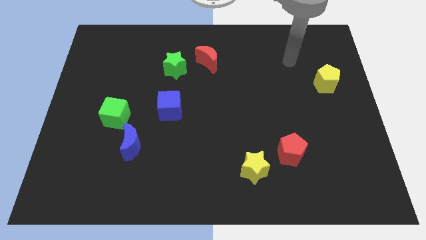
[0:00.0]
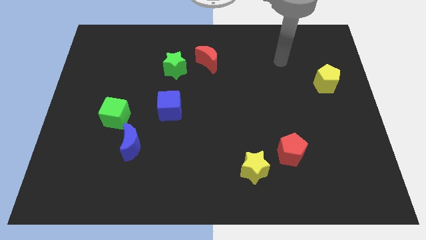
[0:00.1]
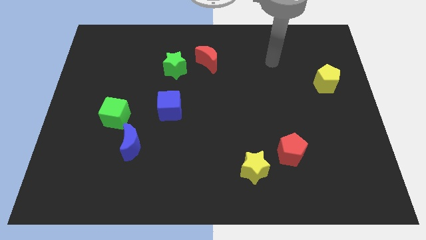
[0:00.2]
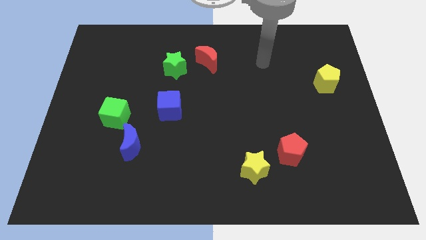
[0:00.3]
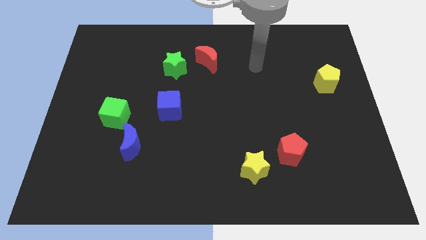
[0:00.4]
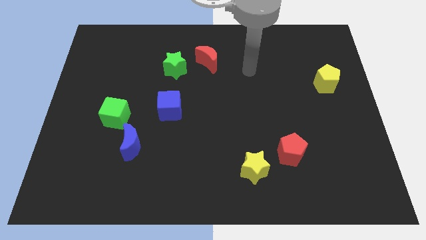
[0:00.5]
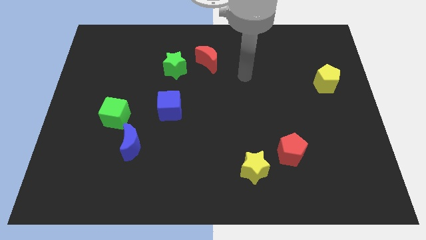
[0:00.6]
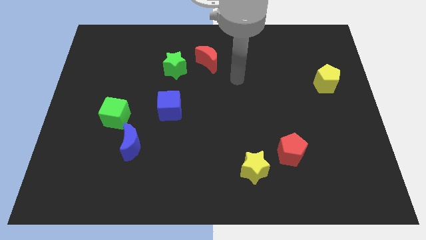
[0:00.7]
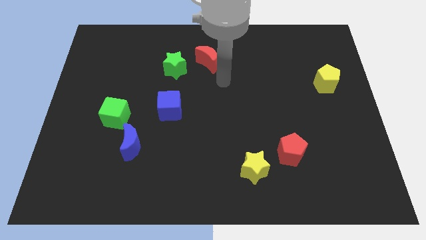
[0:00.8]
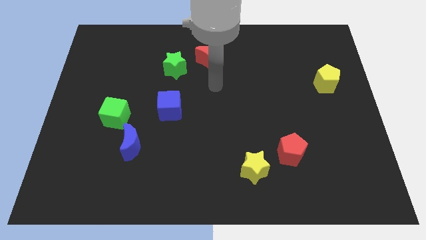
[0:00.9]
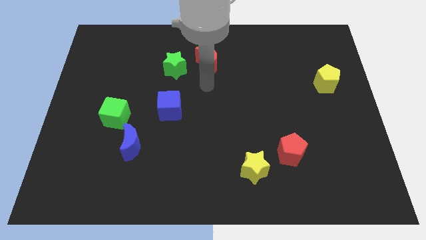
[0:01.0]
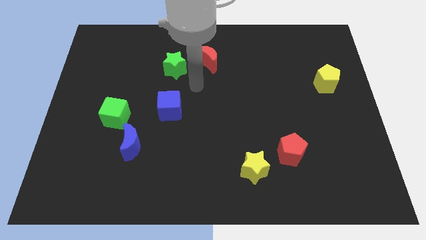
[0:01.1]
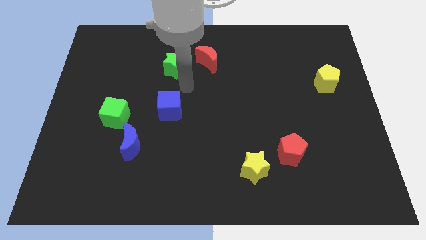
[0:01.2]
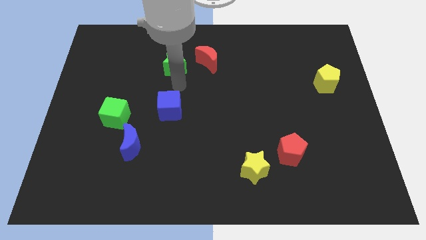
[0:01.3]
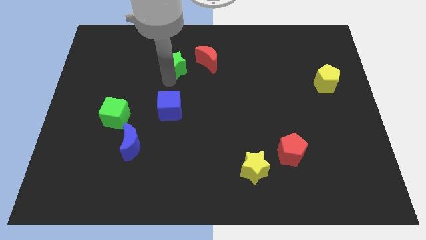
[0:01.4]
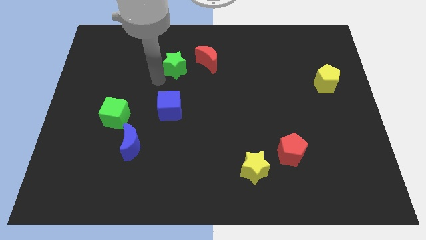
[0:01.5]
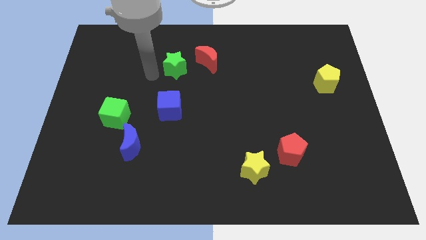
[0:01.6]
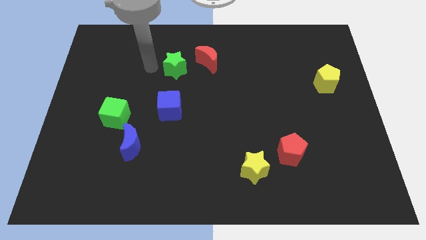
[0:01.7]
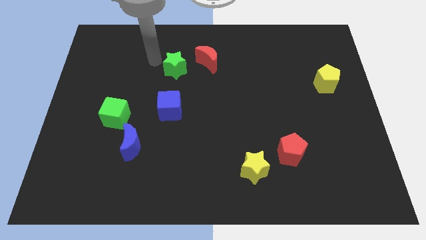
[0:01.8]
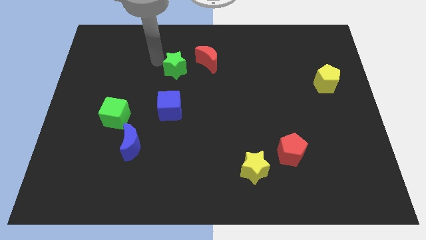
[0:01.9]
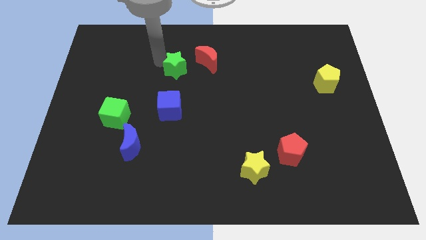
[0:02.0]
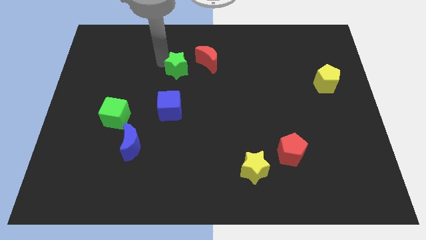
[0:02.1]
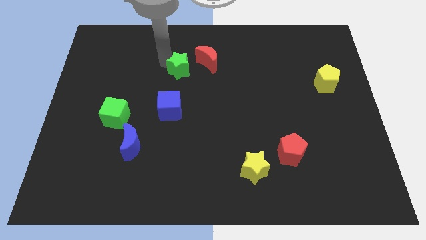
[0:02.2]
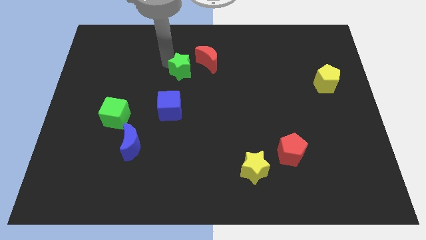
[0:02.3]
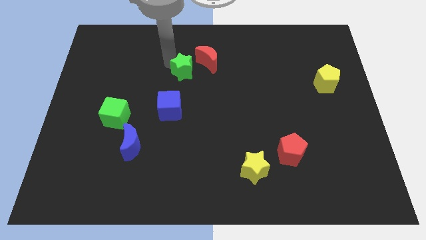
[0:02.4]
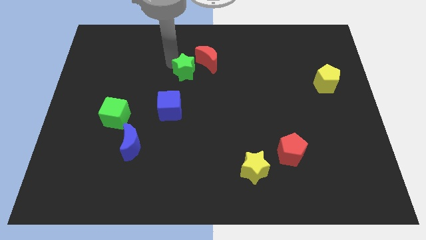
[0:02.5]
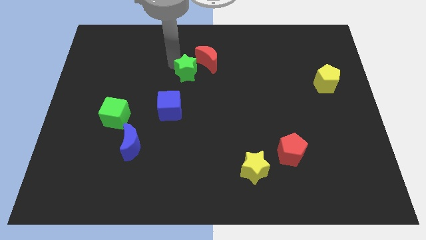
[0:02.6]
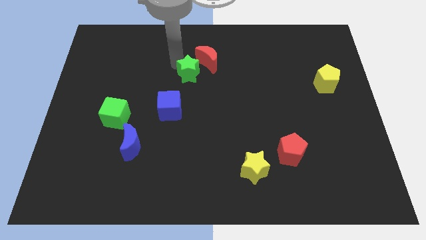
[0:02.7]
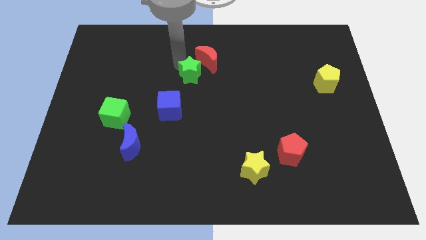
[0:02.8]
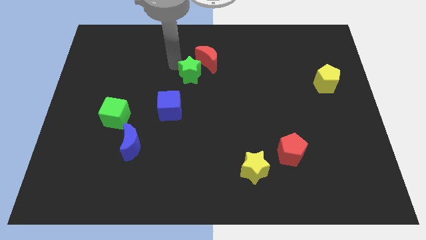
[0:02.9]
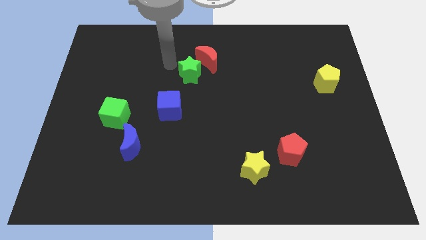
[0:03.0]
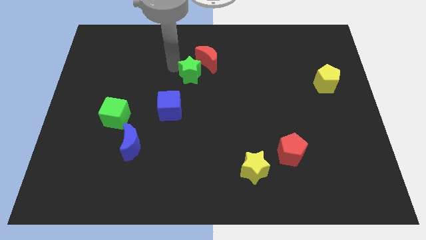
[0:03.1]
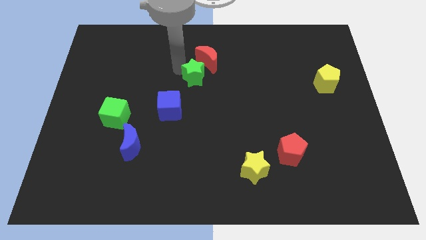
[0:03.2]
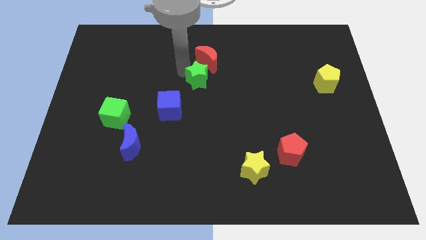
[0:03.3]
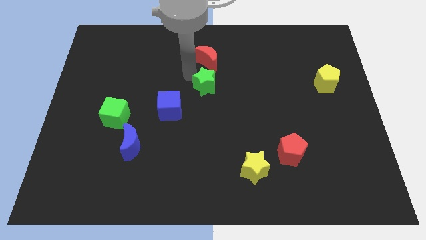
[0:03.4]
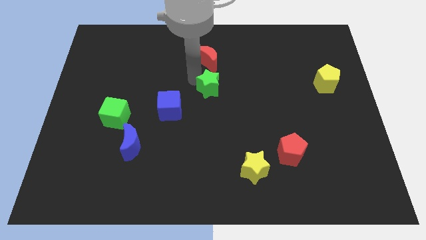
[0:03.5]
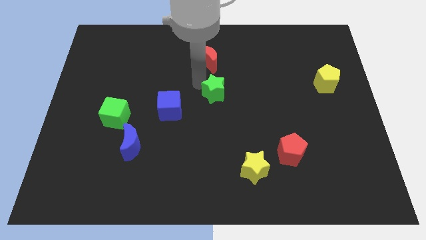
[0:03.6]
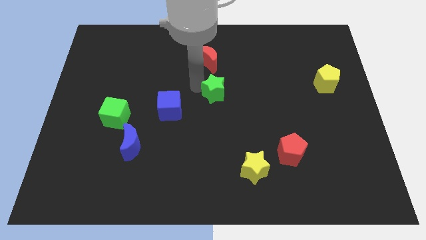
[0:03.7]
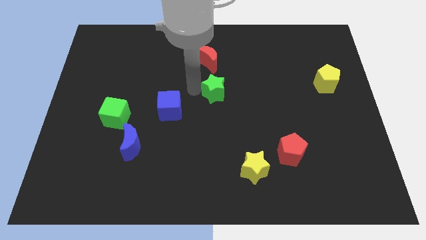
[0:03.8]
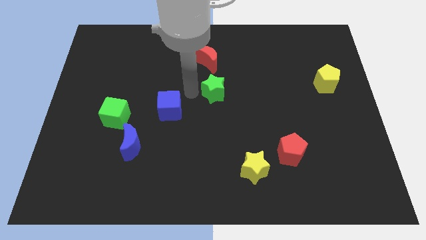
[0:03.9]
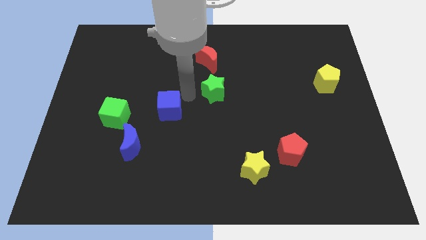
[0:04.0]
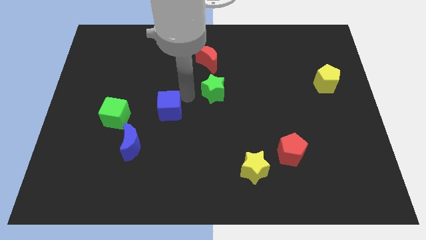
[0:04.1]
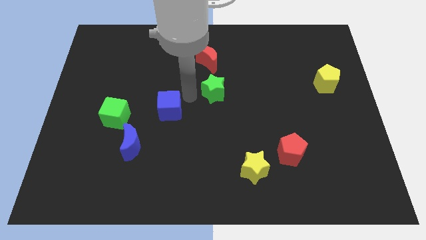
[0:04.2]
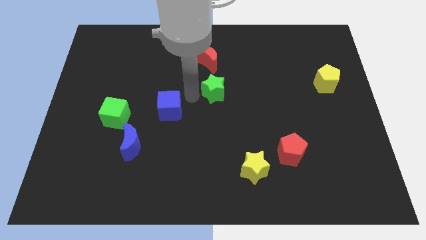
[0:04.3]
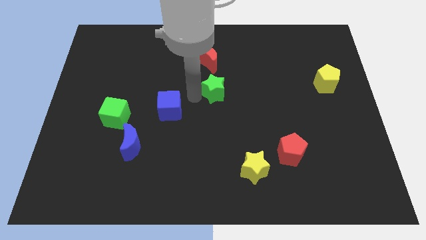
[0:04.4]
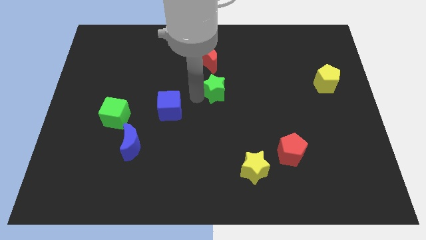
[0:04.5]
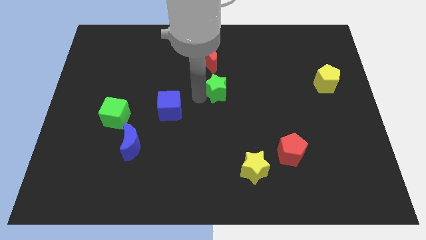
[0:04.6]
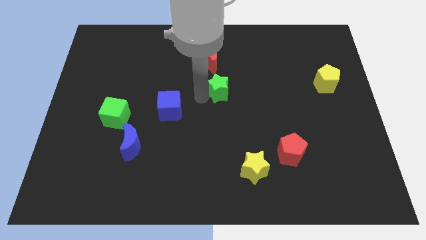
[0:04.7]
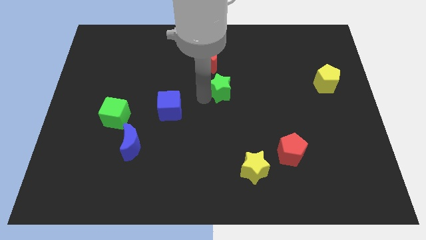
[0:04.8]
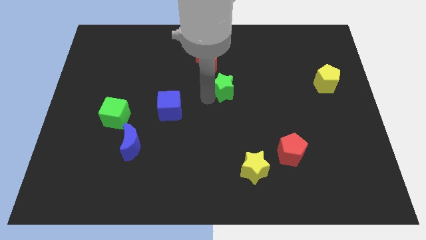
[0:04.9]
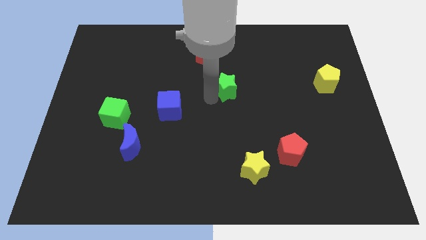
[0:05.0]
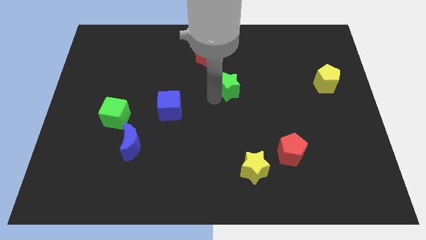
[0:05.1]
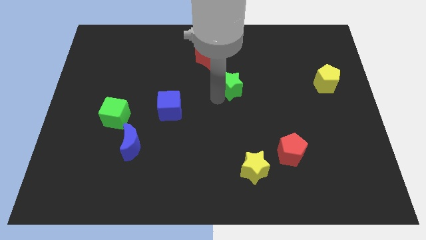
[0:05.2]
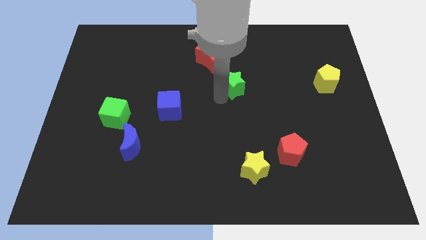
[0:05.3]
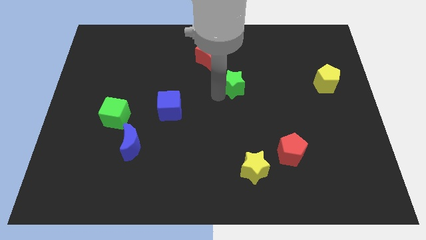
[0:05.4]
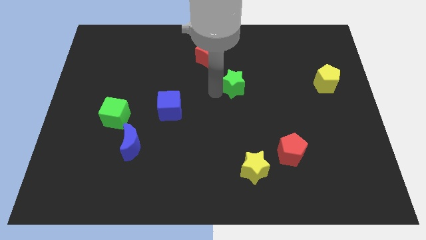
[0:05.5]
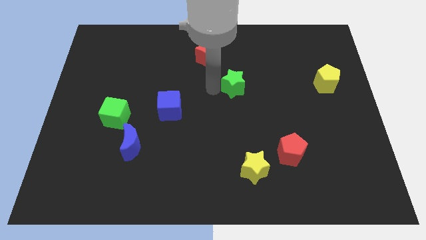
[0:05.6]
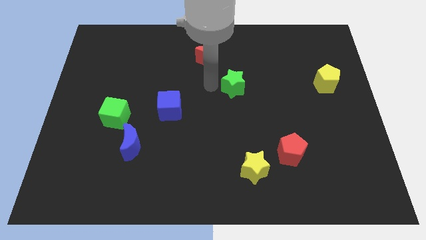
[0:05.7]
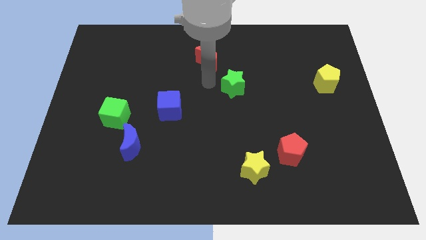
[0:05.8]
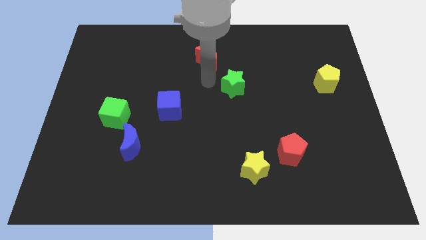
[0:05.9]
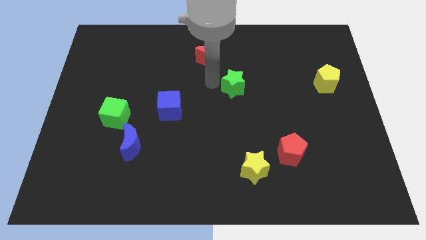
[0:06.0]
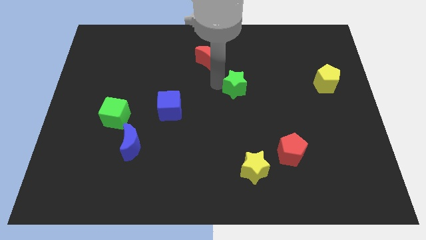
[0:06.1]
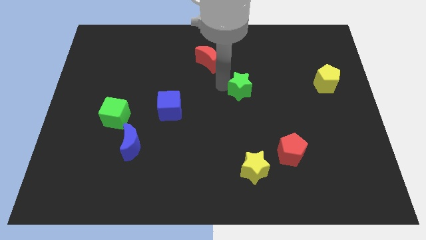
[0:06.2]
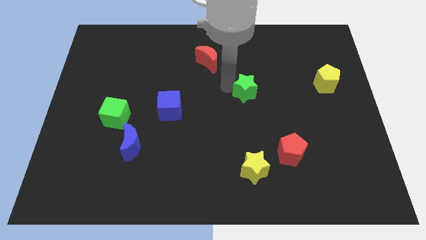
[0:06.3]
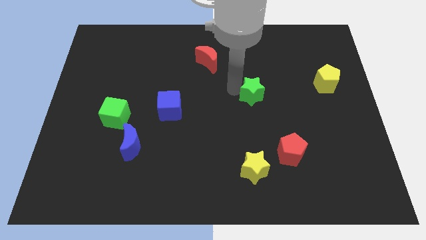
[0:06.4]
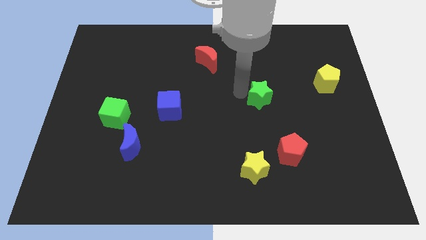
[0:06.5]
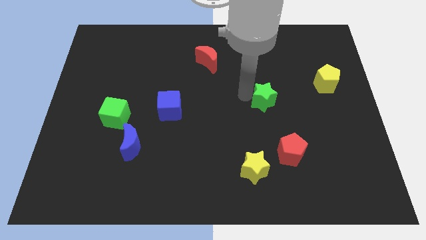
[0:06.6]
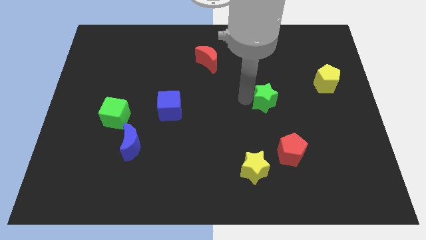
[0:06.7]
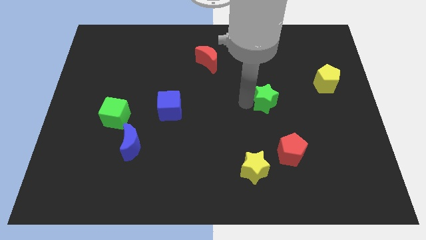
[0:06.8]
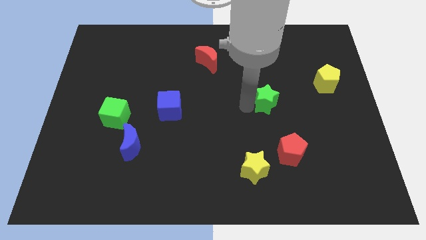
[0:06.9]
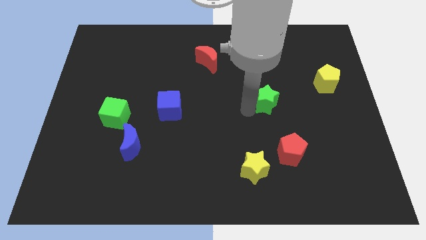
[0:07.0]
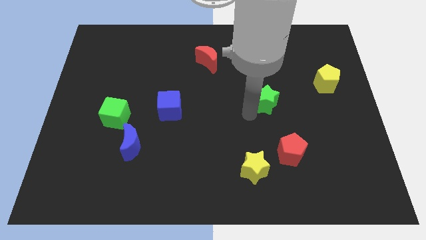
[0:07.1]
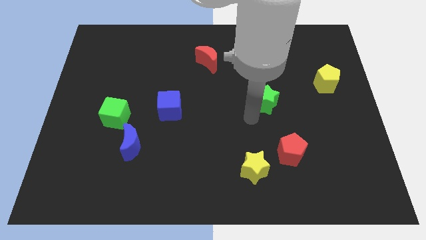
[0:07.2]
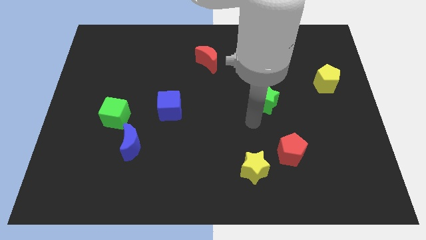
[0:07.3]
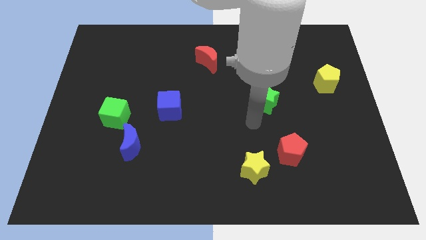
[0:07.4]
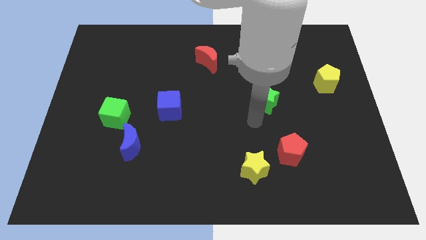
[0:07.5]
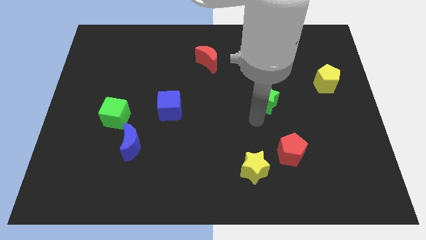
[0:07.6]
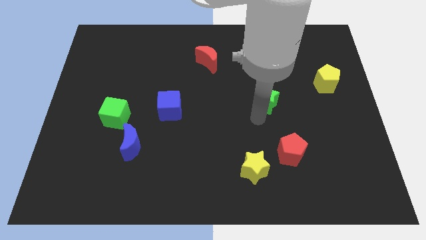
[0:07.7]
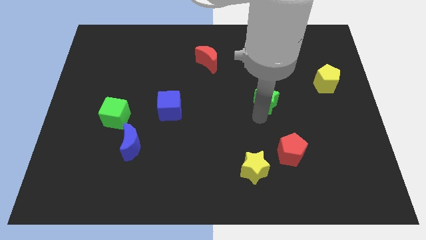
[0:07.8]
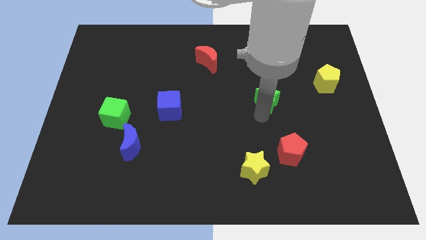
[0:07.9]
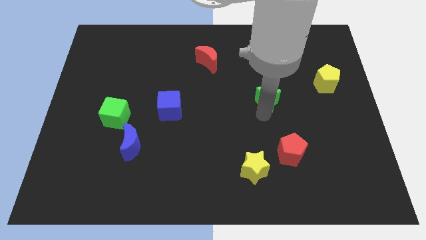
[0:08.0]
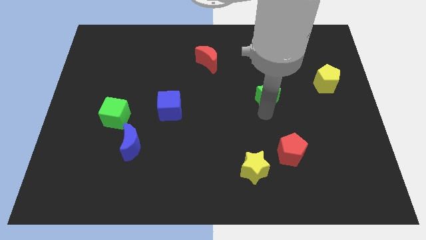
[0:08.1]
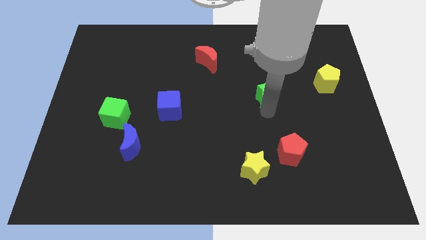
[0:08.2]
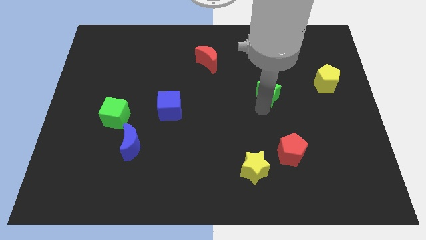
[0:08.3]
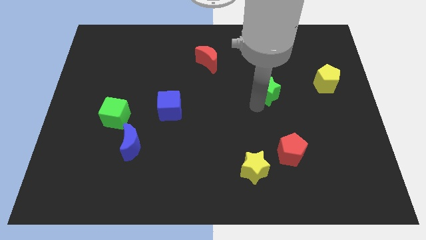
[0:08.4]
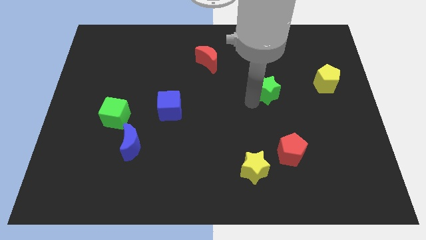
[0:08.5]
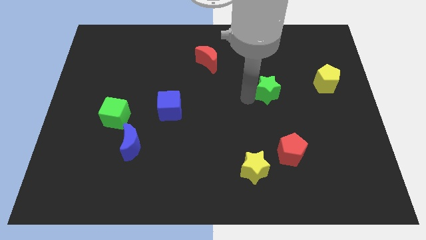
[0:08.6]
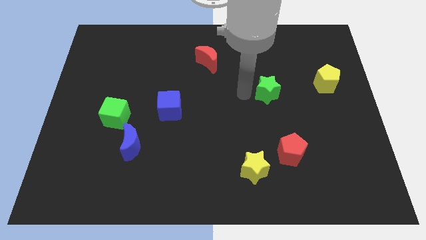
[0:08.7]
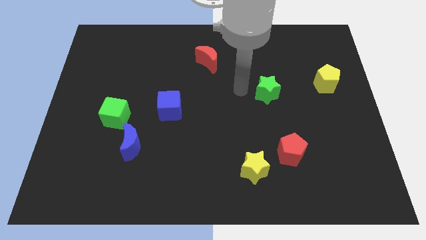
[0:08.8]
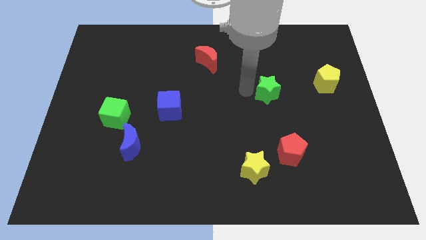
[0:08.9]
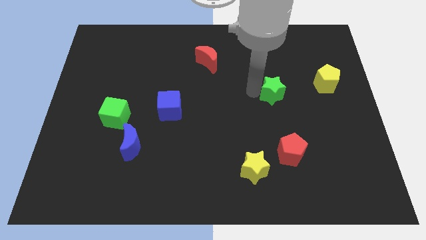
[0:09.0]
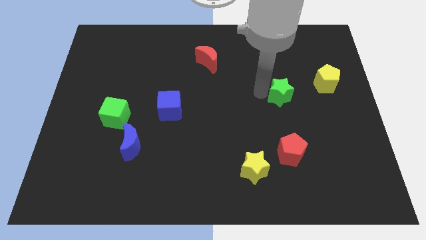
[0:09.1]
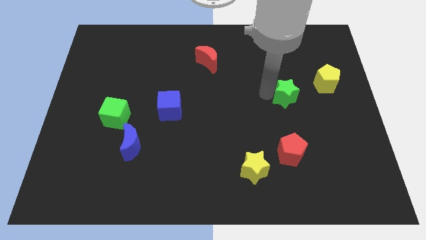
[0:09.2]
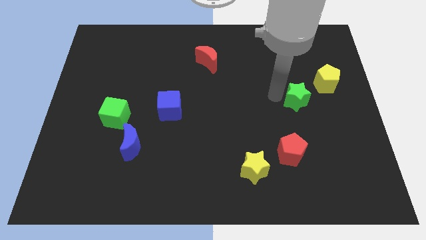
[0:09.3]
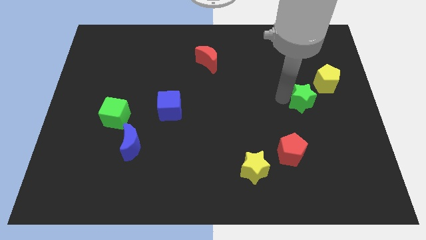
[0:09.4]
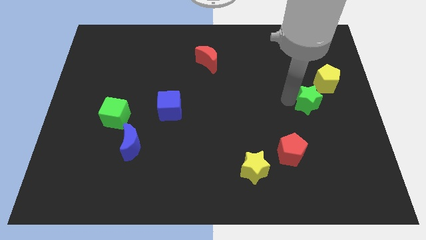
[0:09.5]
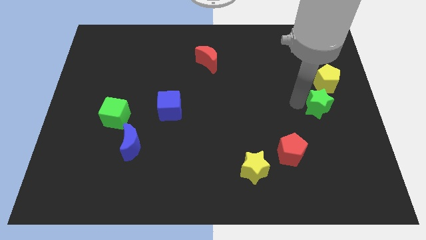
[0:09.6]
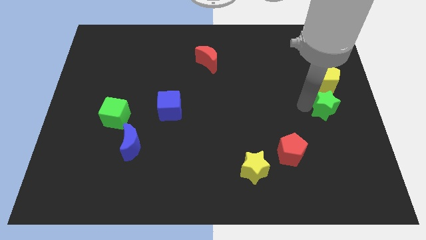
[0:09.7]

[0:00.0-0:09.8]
slide the green star to the right side
